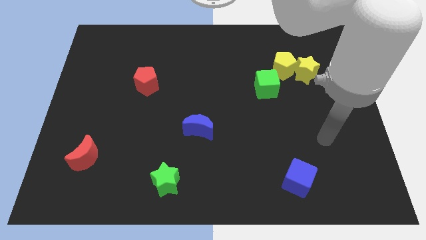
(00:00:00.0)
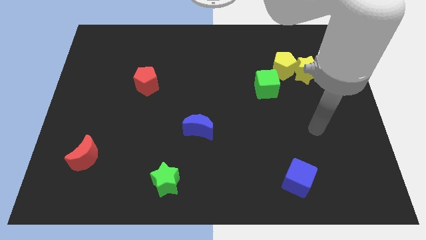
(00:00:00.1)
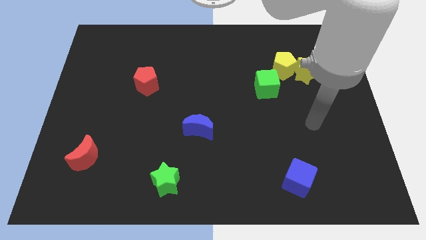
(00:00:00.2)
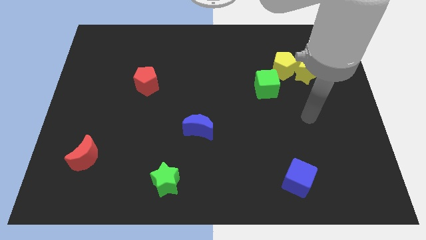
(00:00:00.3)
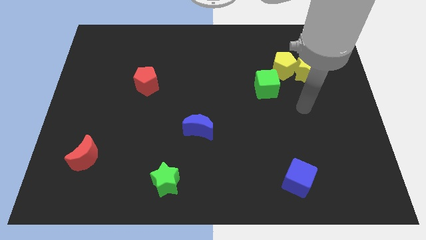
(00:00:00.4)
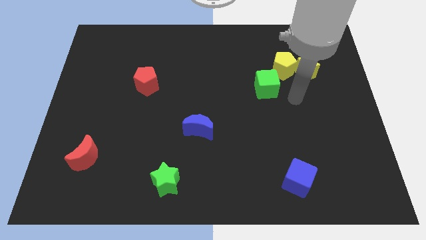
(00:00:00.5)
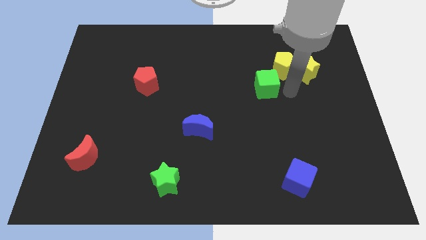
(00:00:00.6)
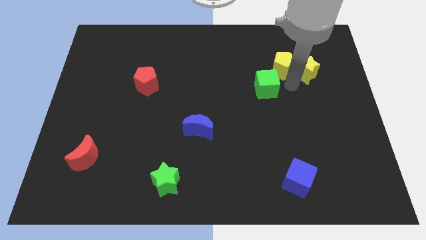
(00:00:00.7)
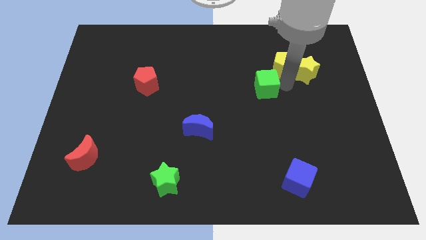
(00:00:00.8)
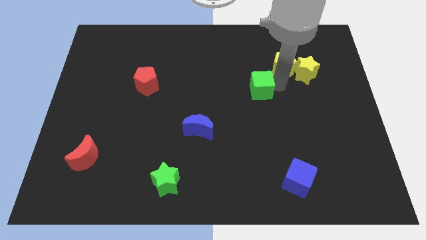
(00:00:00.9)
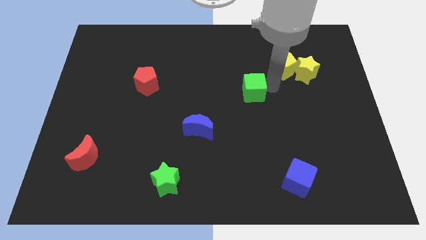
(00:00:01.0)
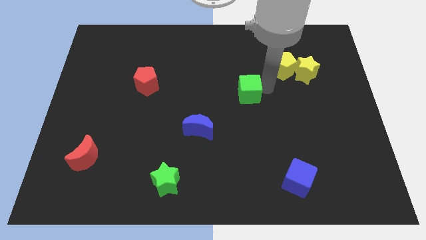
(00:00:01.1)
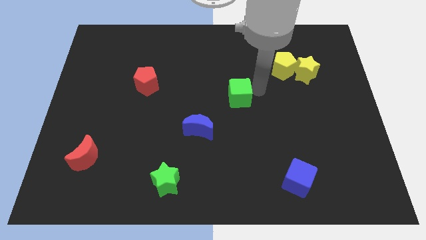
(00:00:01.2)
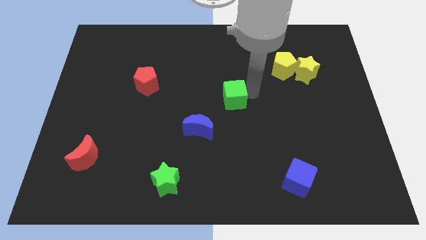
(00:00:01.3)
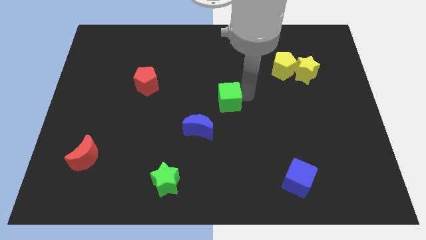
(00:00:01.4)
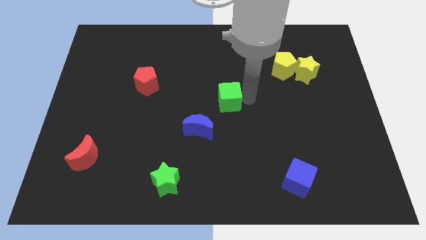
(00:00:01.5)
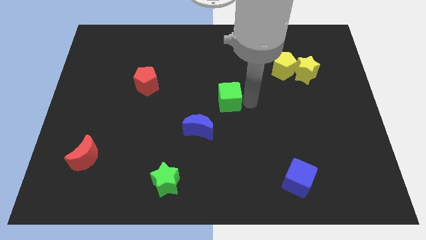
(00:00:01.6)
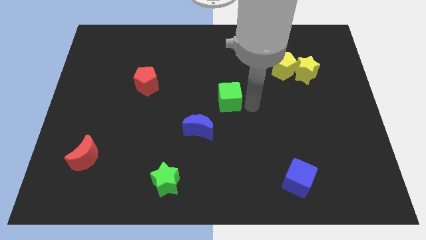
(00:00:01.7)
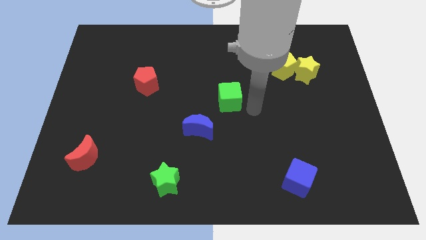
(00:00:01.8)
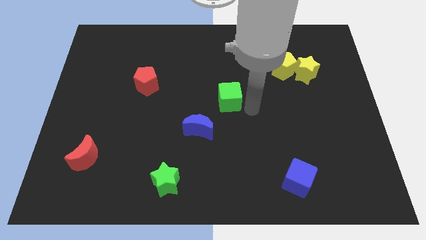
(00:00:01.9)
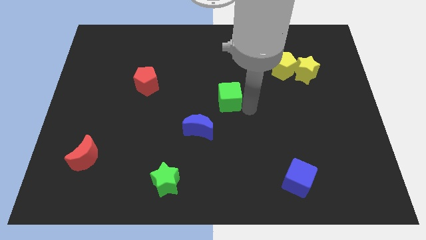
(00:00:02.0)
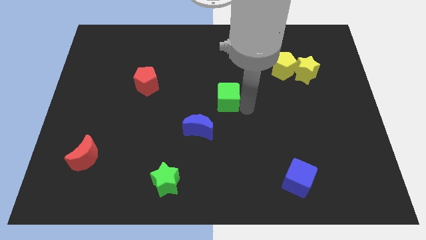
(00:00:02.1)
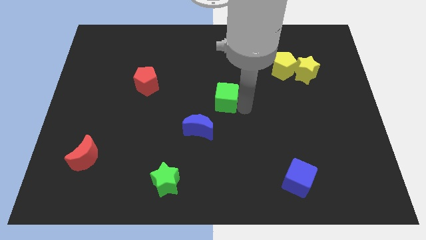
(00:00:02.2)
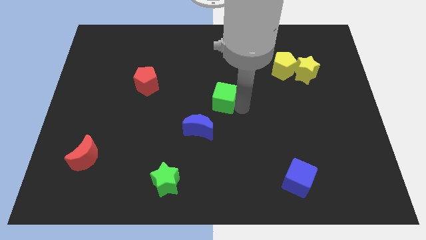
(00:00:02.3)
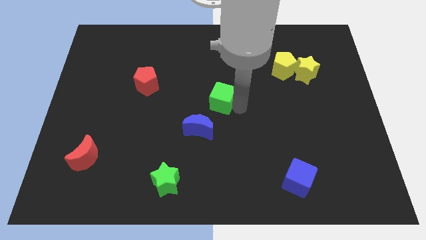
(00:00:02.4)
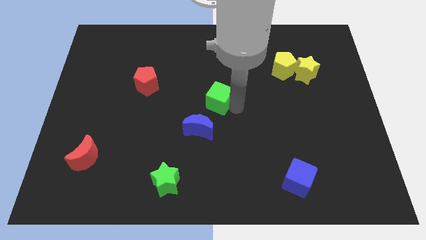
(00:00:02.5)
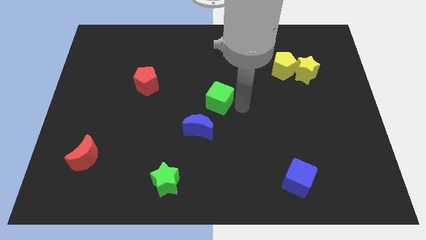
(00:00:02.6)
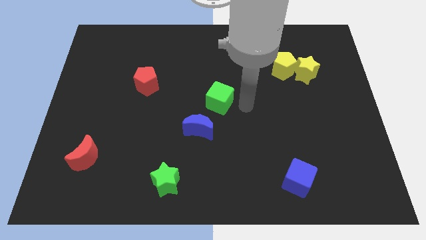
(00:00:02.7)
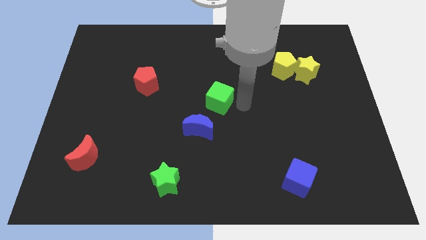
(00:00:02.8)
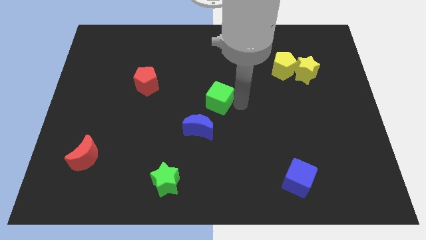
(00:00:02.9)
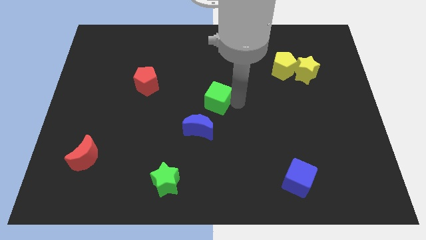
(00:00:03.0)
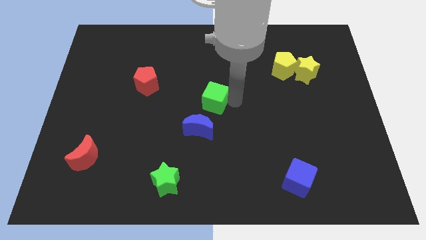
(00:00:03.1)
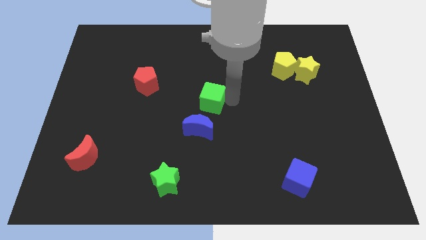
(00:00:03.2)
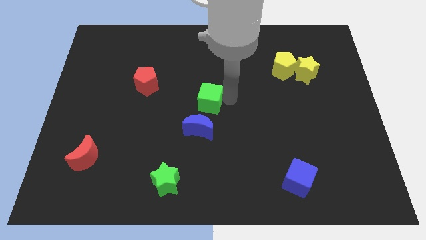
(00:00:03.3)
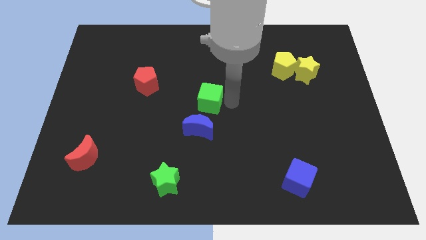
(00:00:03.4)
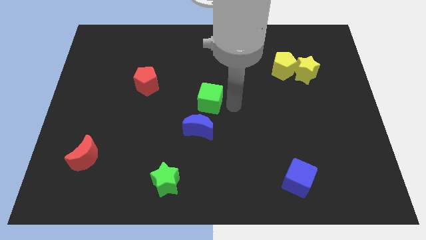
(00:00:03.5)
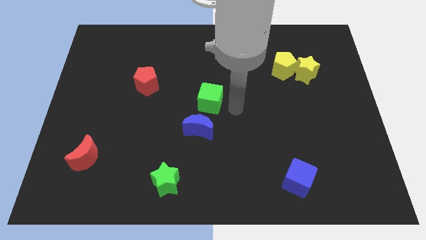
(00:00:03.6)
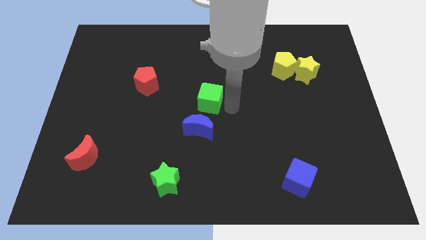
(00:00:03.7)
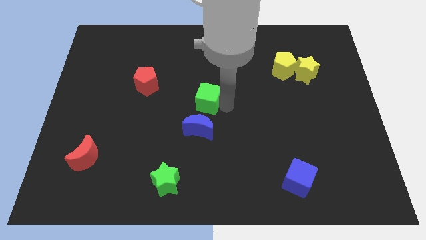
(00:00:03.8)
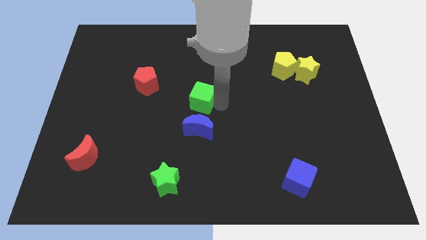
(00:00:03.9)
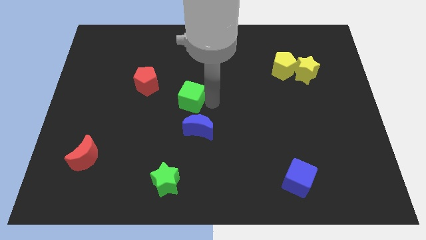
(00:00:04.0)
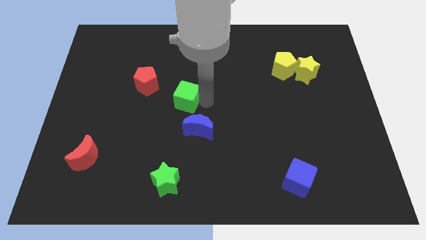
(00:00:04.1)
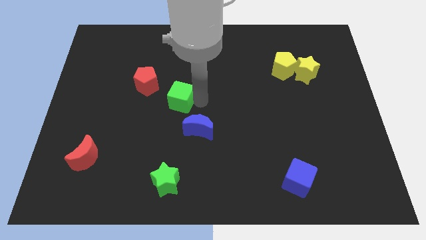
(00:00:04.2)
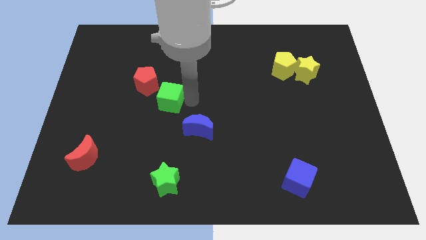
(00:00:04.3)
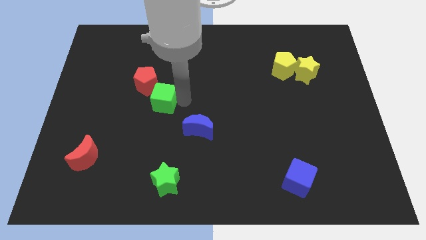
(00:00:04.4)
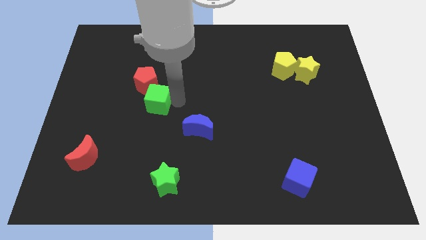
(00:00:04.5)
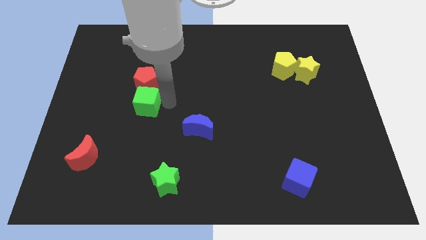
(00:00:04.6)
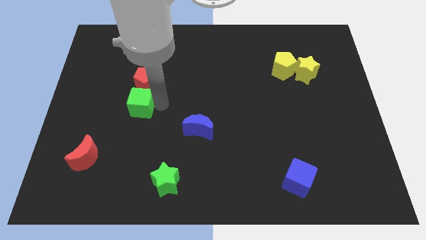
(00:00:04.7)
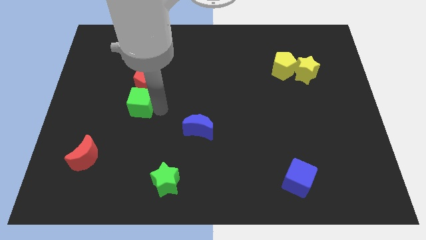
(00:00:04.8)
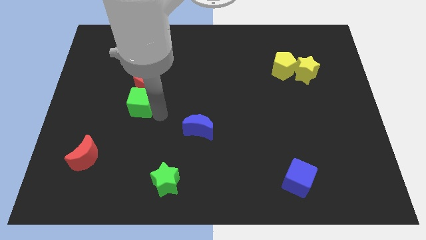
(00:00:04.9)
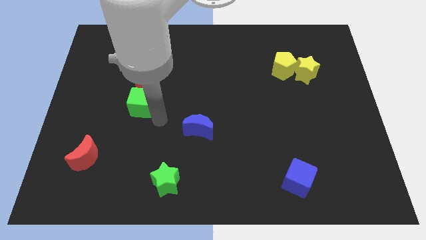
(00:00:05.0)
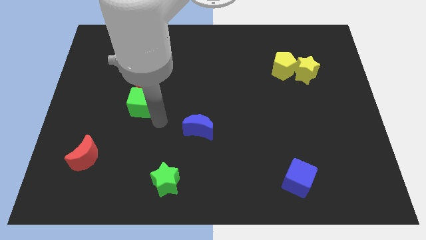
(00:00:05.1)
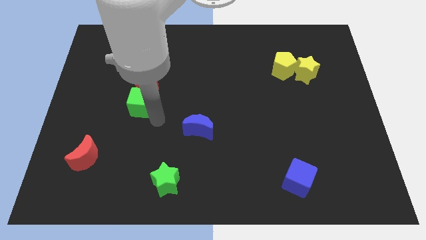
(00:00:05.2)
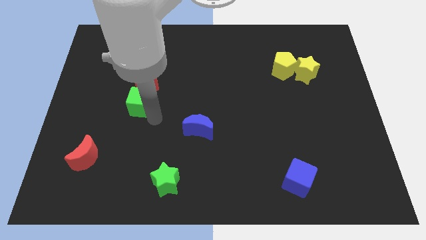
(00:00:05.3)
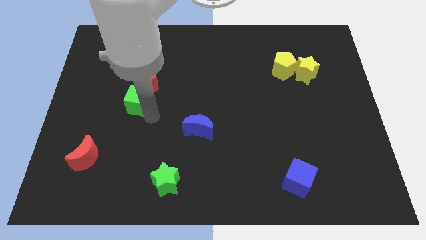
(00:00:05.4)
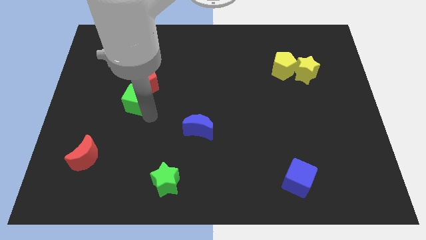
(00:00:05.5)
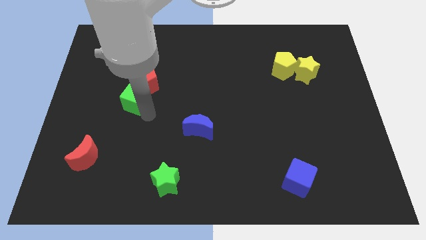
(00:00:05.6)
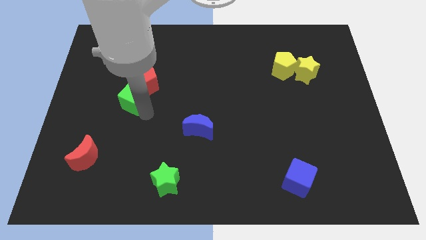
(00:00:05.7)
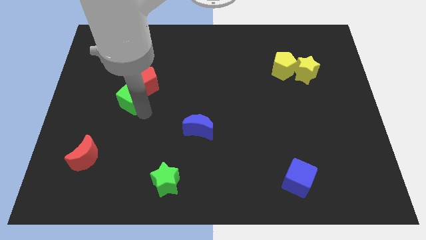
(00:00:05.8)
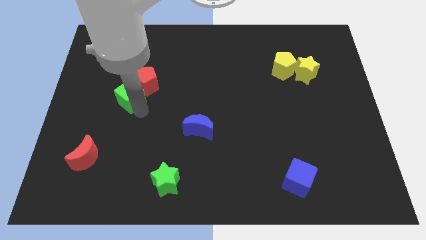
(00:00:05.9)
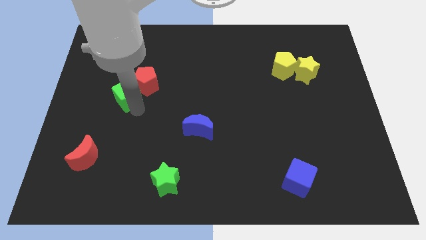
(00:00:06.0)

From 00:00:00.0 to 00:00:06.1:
slide the green cube left of the red pentagon

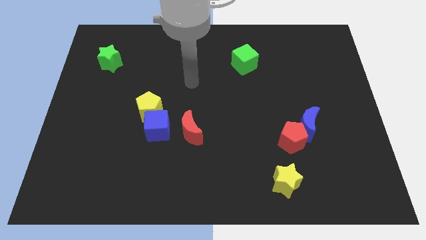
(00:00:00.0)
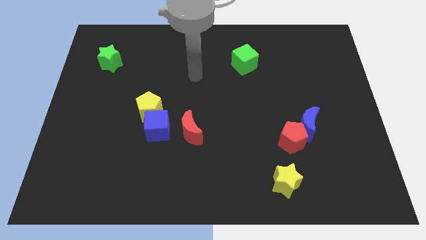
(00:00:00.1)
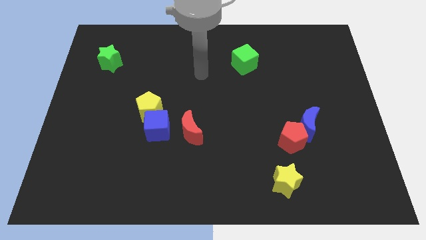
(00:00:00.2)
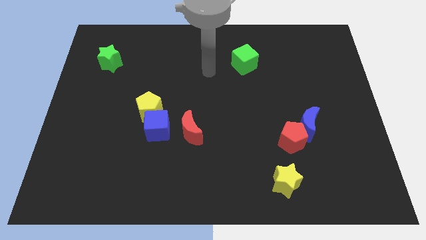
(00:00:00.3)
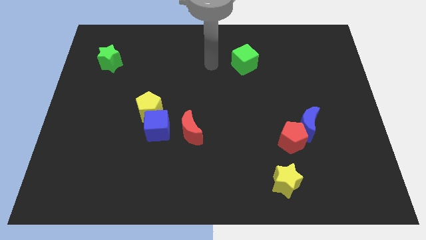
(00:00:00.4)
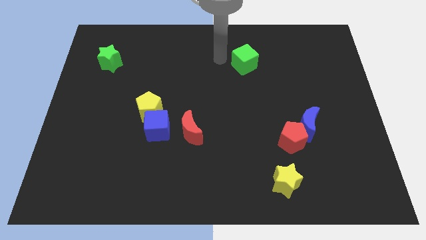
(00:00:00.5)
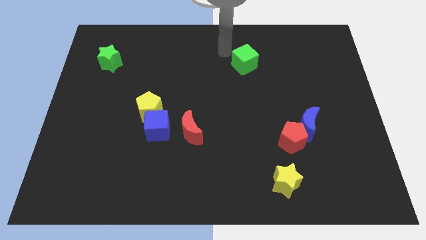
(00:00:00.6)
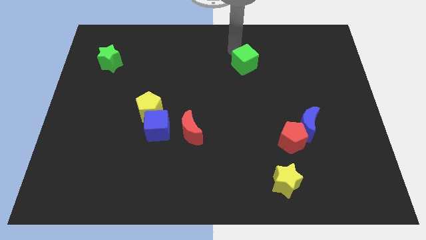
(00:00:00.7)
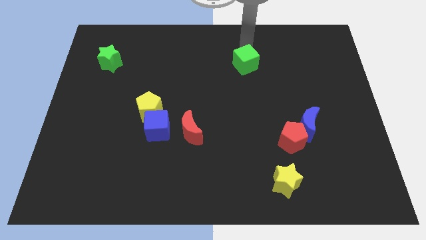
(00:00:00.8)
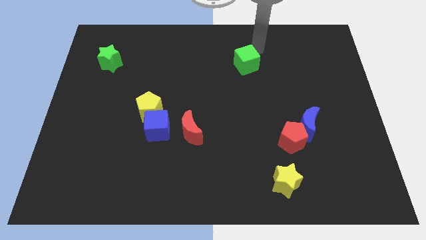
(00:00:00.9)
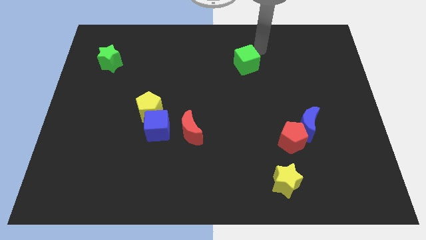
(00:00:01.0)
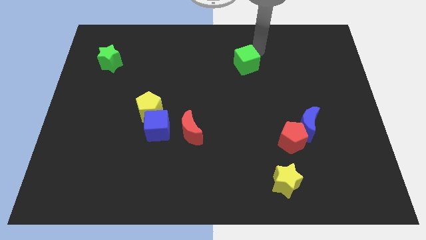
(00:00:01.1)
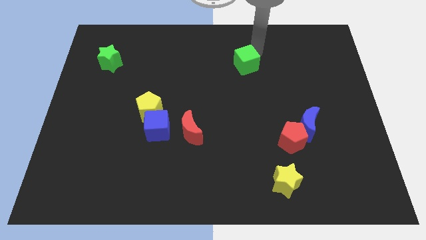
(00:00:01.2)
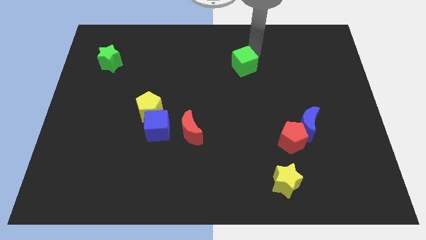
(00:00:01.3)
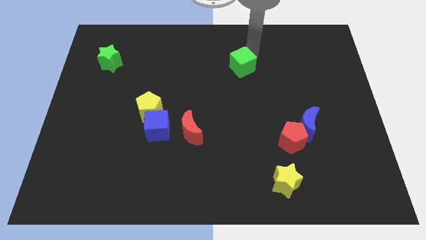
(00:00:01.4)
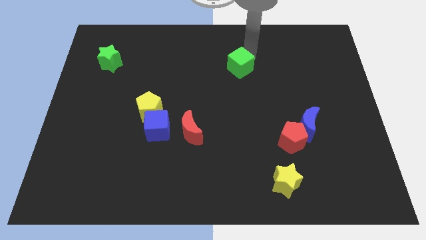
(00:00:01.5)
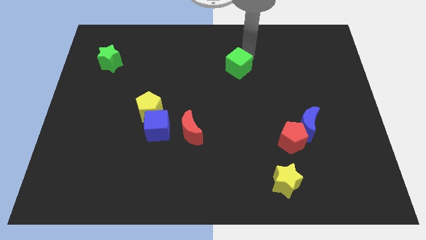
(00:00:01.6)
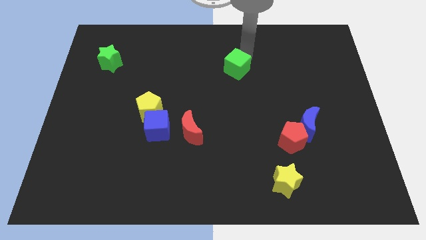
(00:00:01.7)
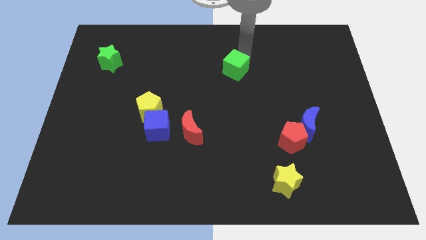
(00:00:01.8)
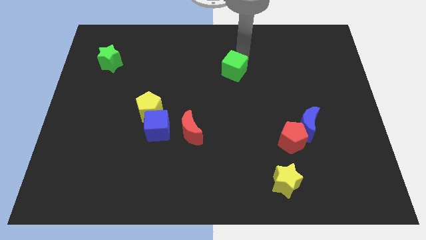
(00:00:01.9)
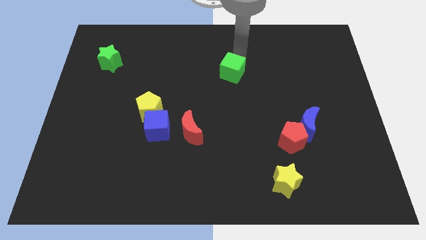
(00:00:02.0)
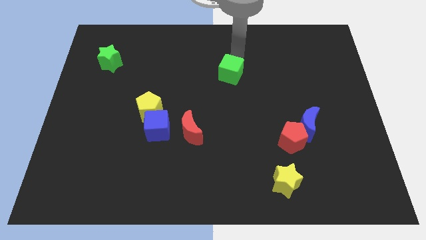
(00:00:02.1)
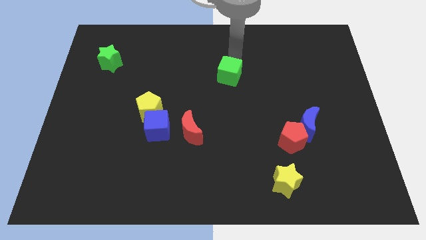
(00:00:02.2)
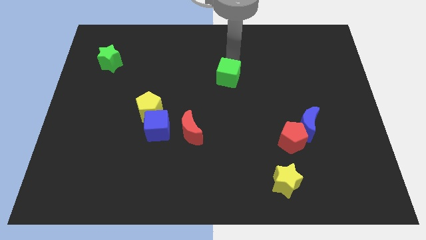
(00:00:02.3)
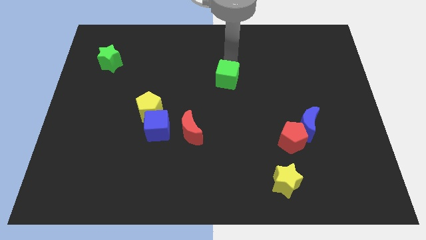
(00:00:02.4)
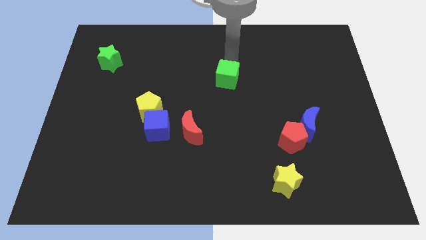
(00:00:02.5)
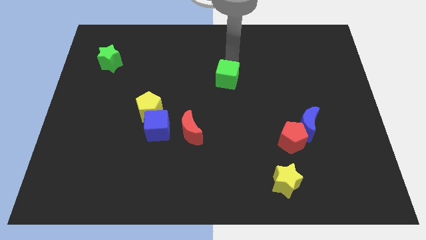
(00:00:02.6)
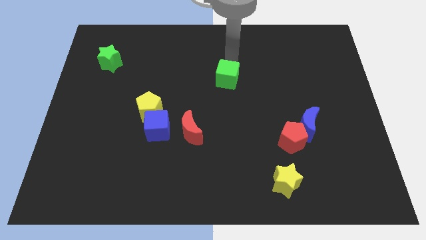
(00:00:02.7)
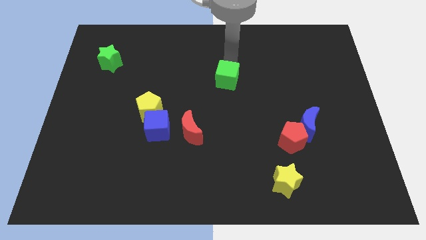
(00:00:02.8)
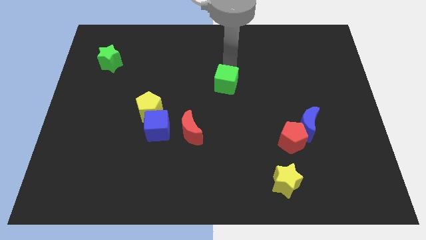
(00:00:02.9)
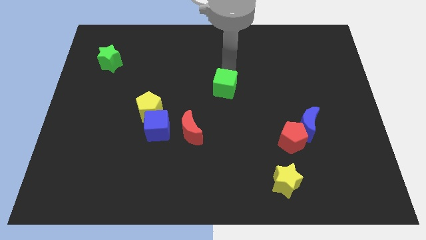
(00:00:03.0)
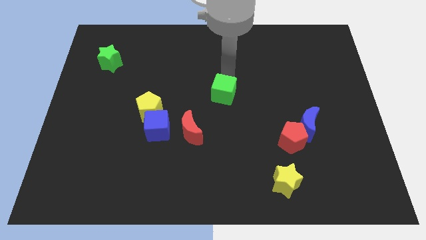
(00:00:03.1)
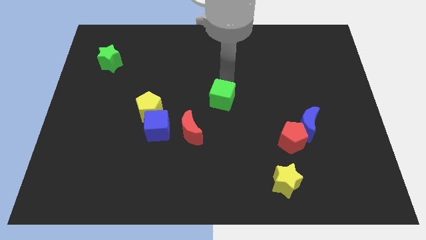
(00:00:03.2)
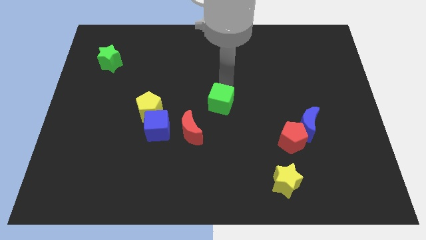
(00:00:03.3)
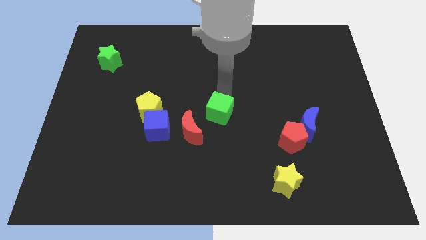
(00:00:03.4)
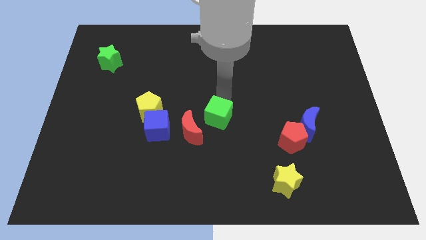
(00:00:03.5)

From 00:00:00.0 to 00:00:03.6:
put the green cube right of the blue cube
